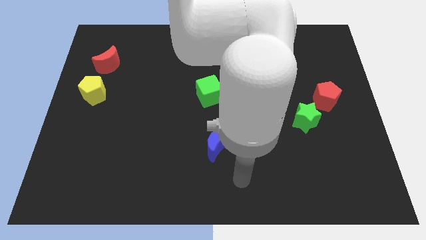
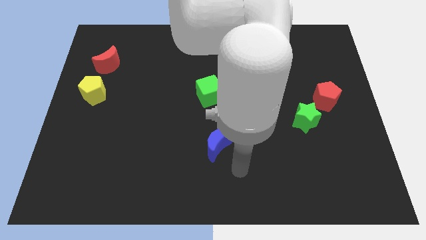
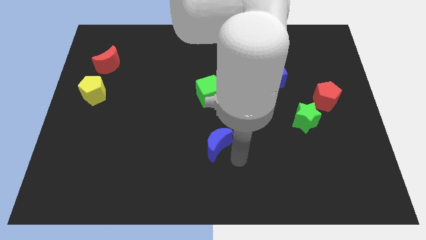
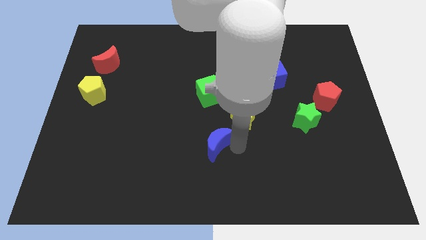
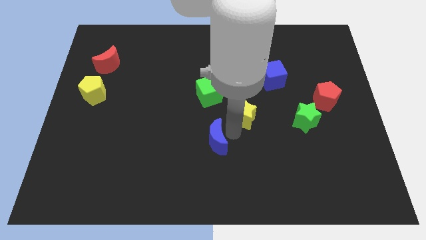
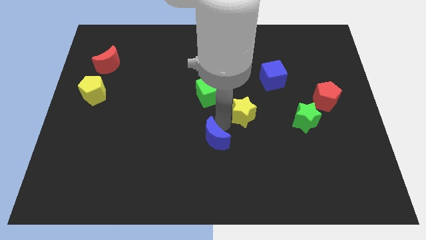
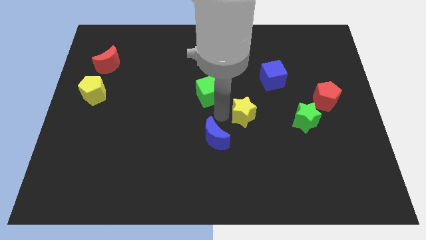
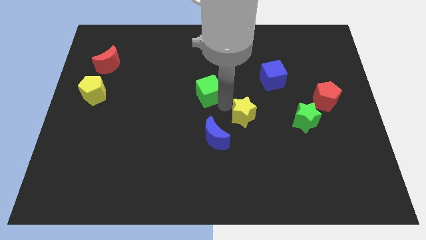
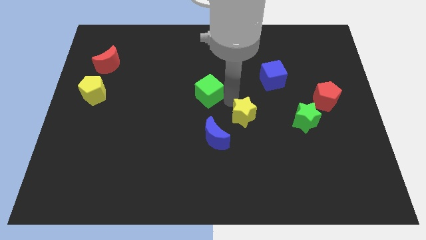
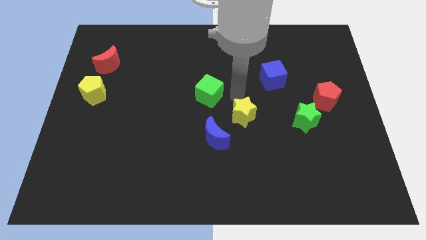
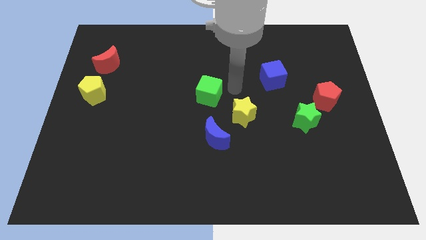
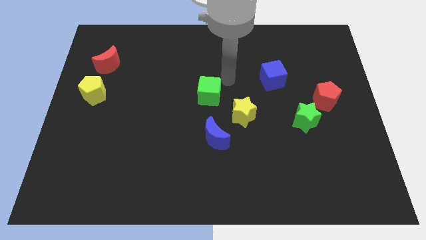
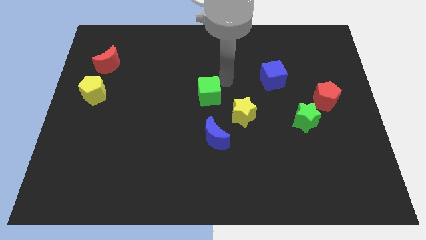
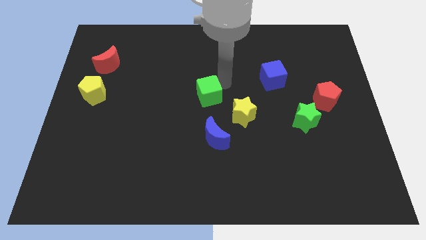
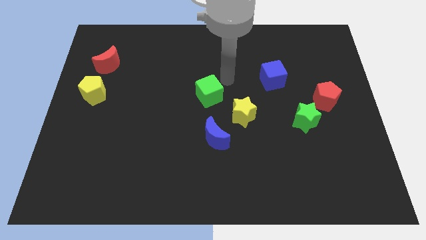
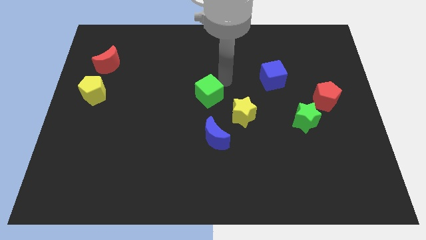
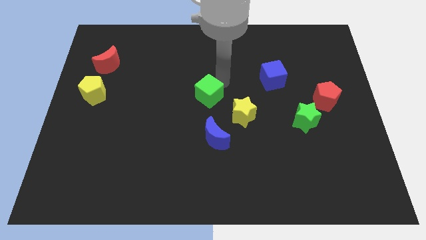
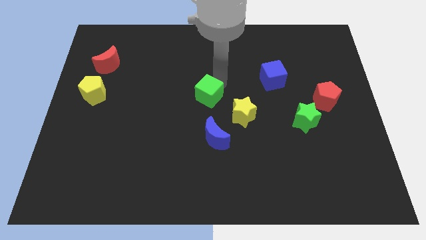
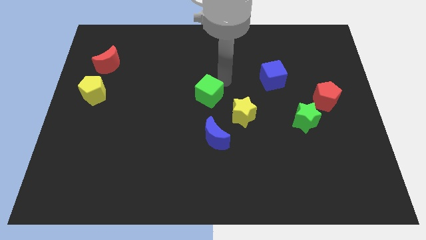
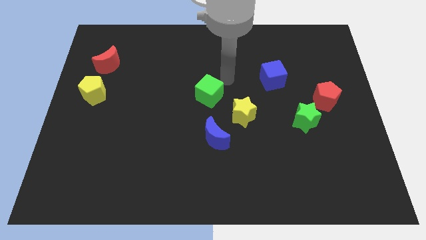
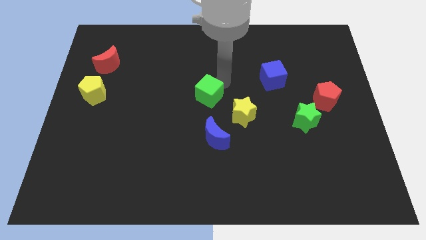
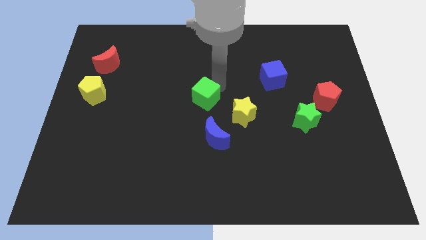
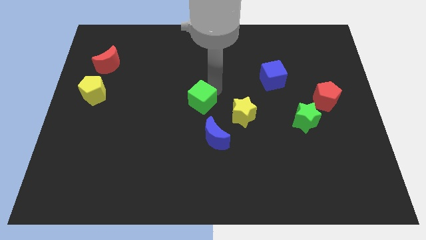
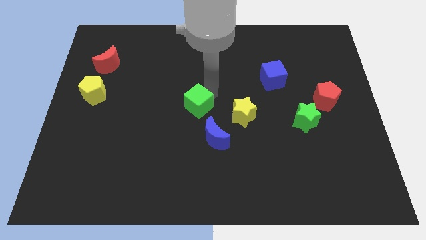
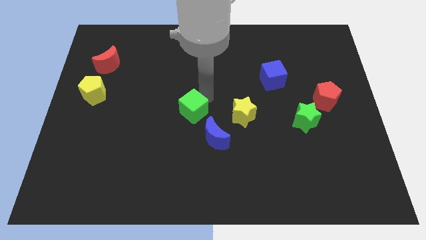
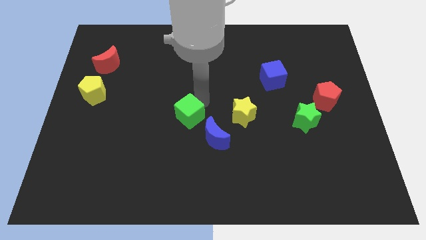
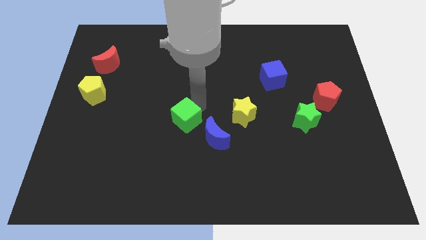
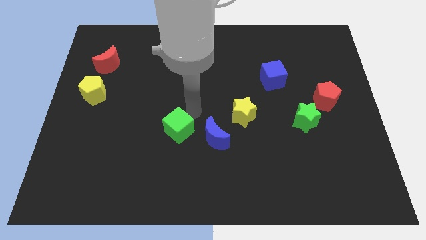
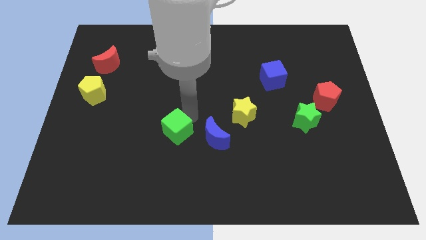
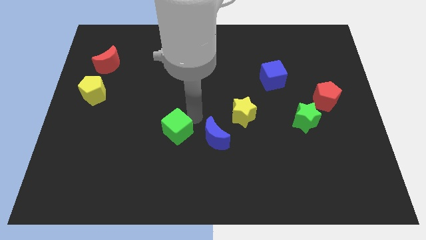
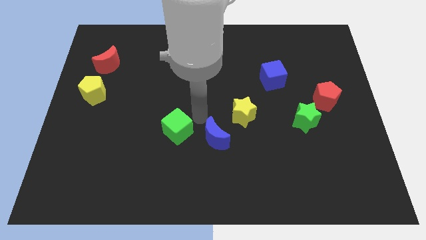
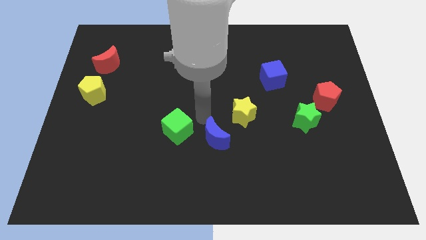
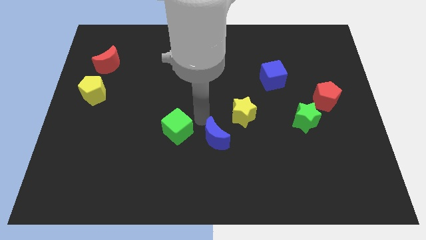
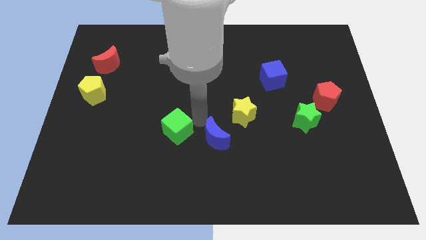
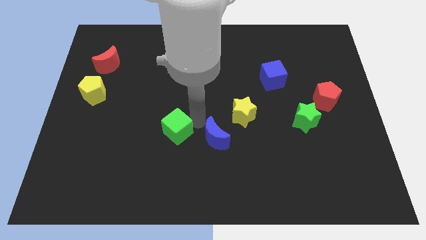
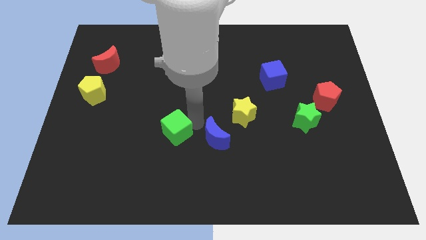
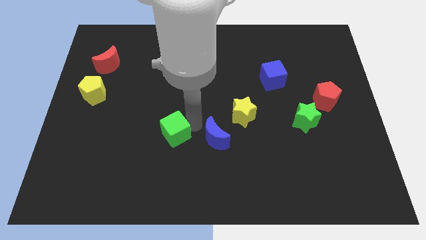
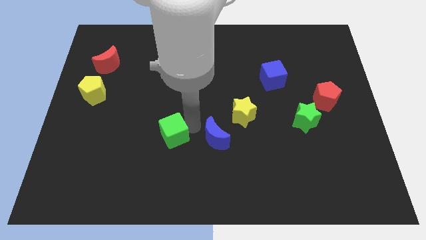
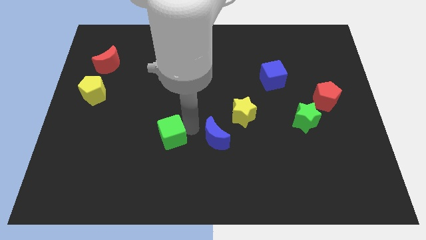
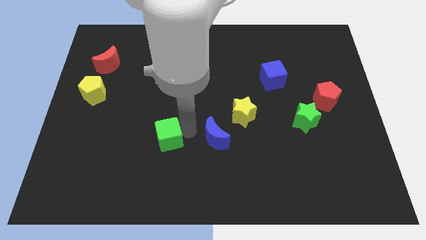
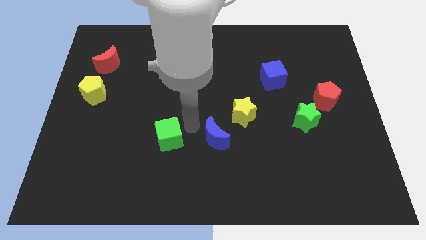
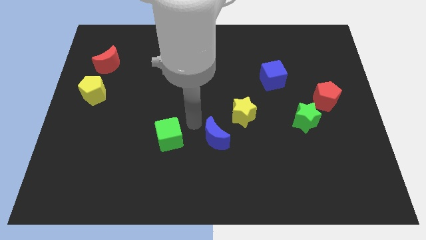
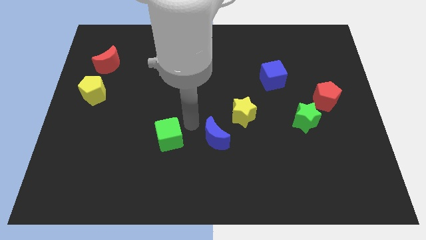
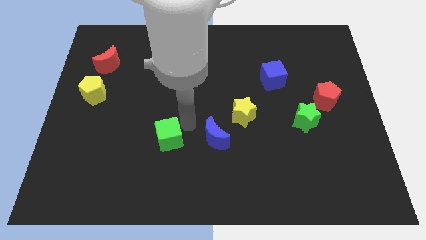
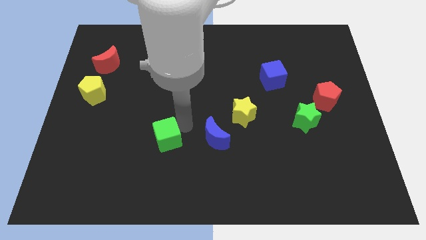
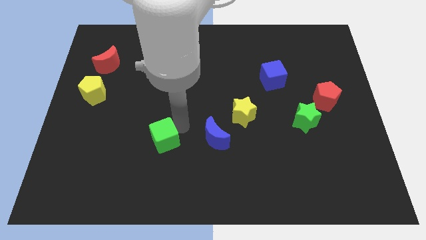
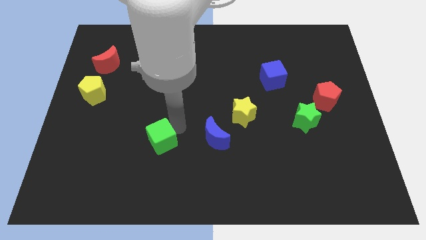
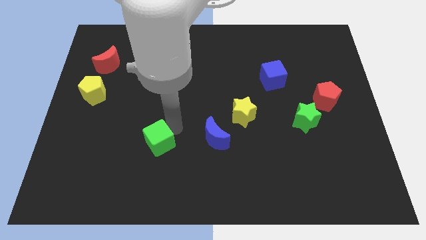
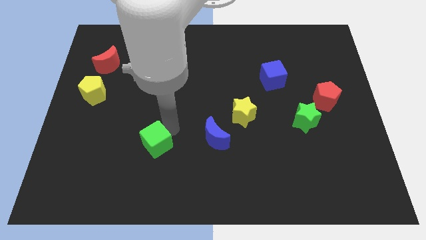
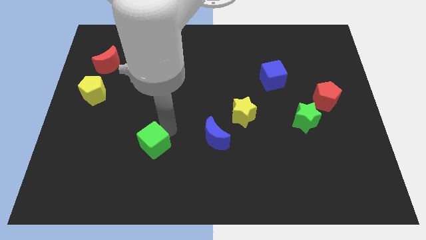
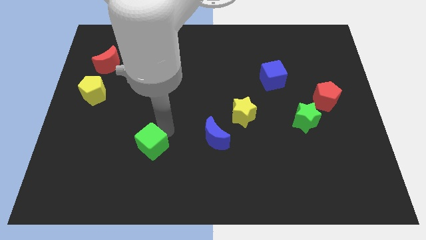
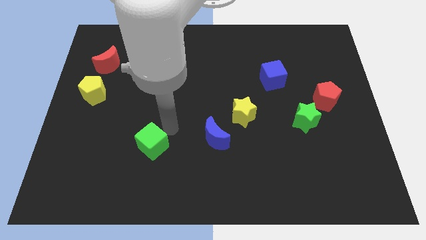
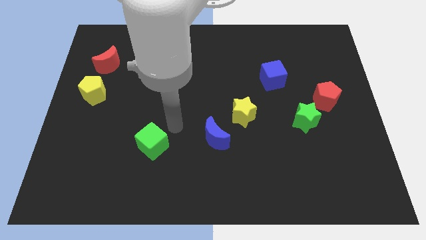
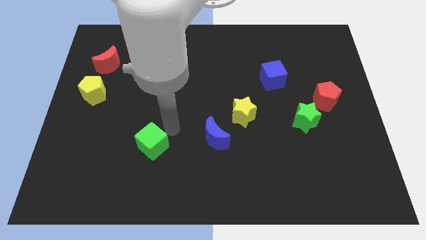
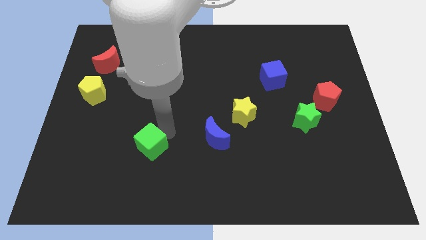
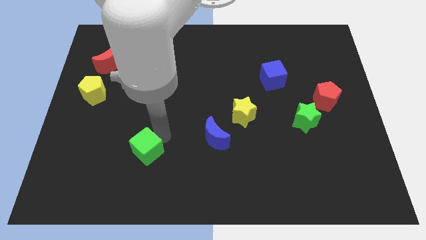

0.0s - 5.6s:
slide the green cube downwards and left

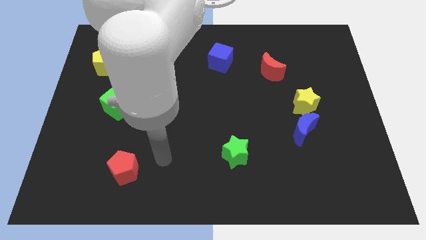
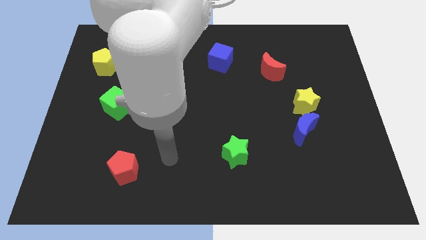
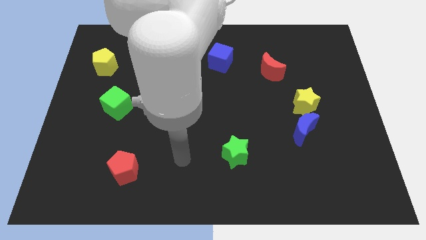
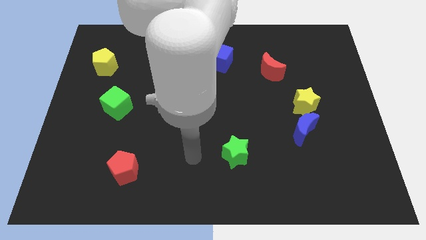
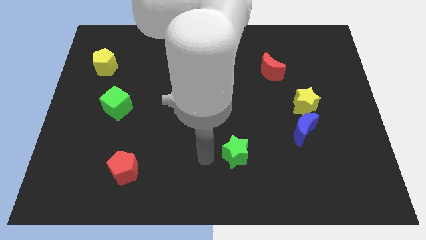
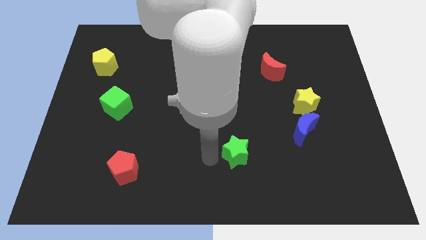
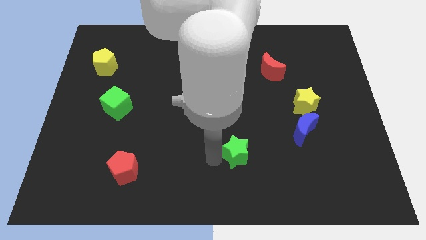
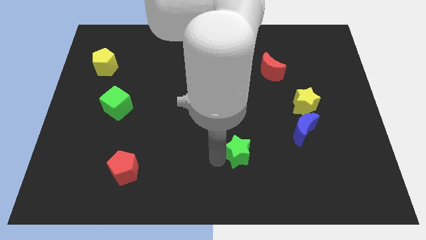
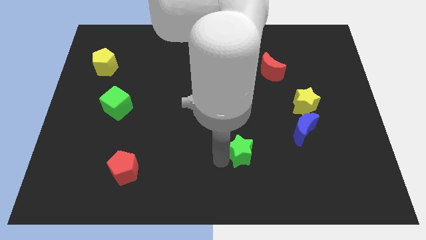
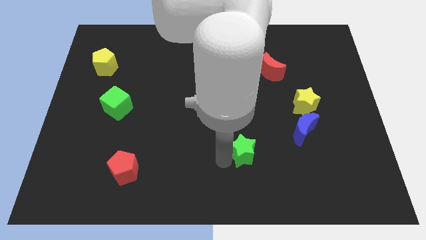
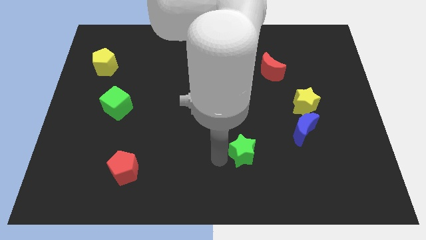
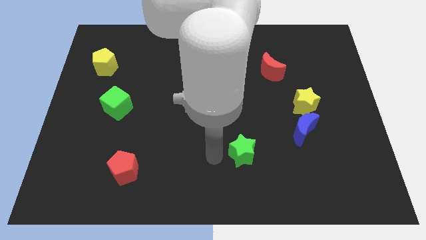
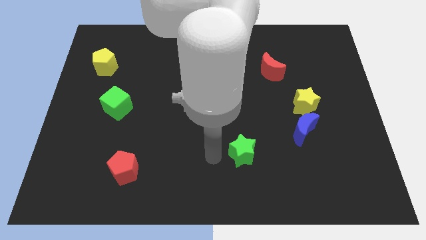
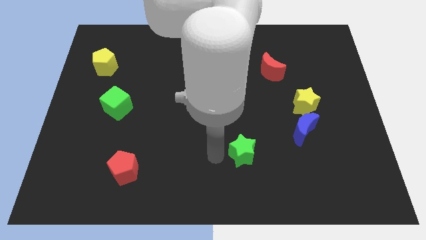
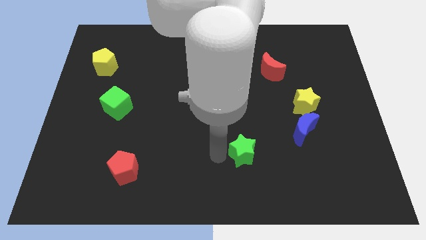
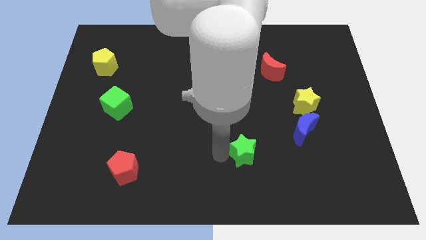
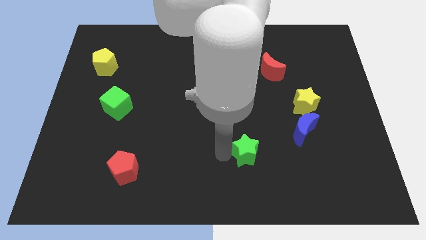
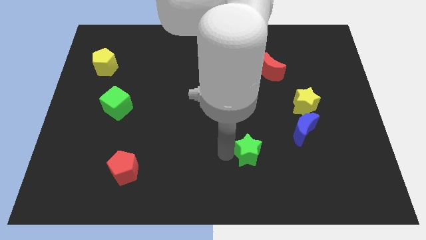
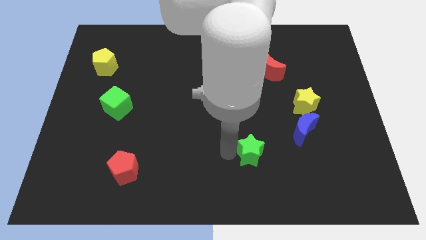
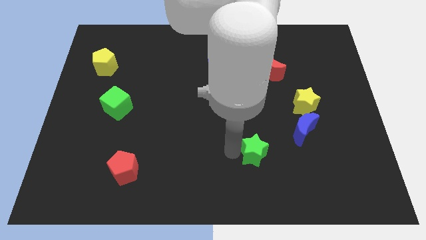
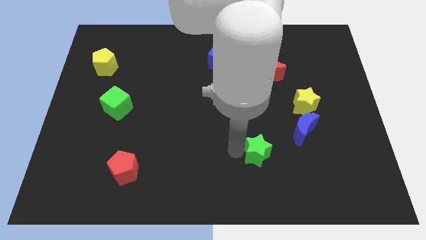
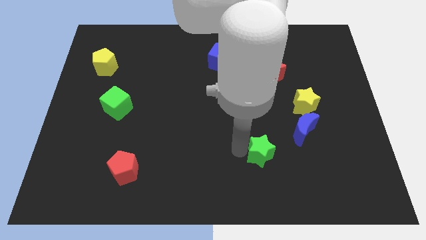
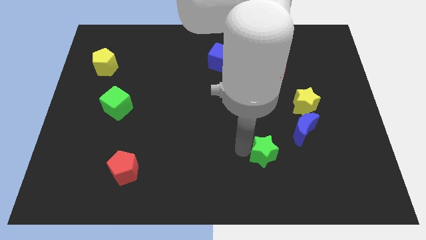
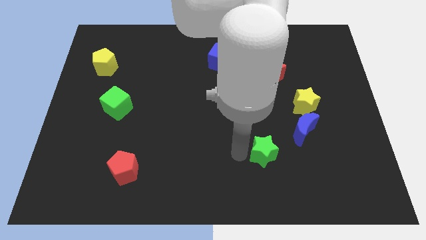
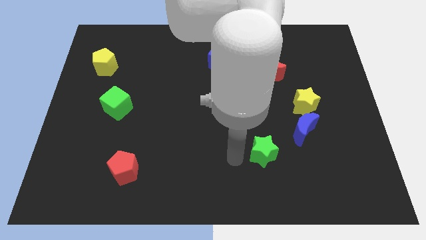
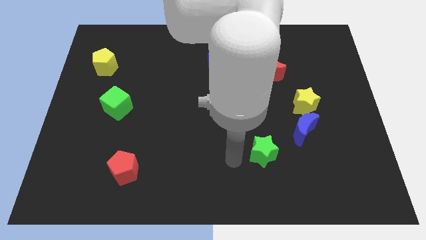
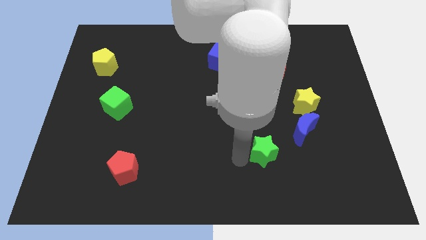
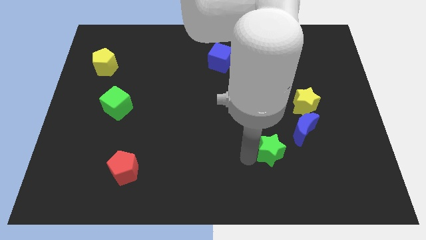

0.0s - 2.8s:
push the green star to the right slightly
